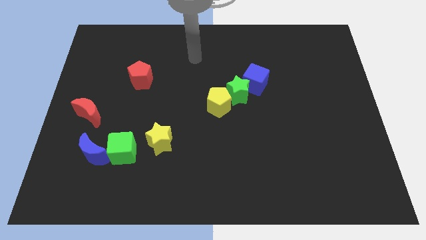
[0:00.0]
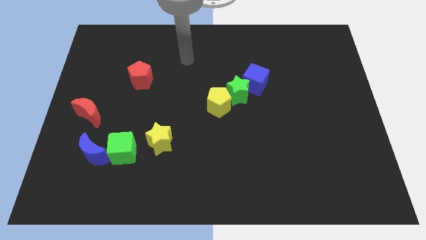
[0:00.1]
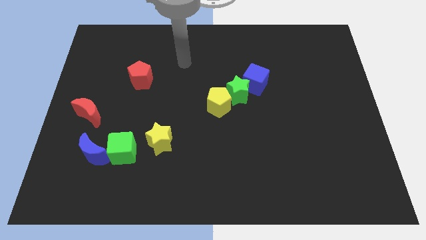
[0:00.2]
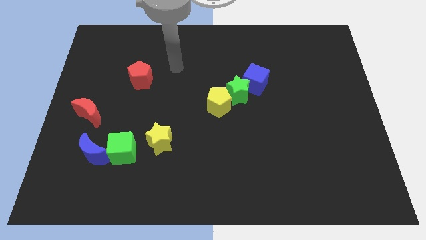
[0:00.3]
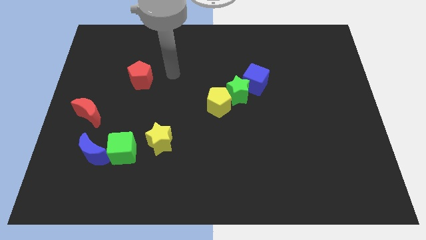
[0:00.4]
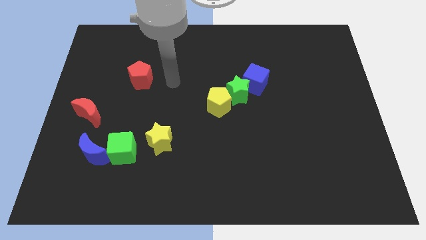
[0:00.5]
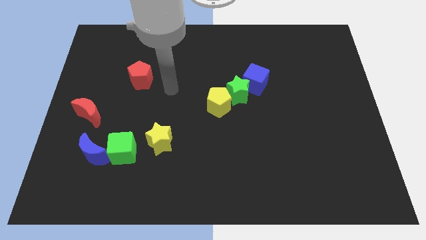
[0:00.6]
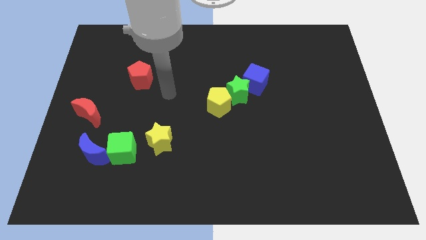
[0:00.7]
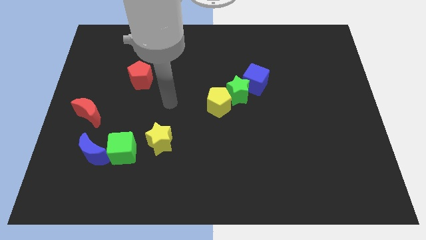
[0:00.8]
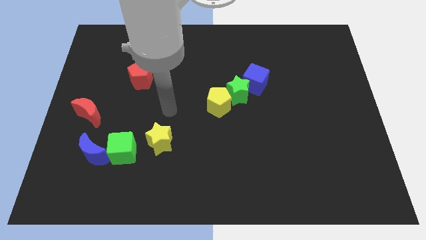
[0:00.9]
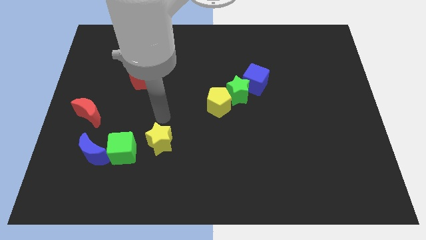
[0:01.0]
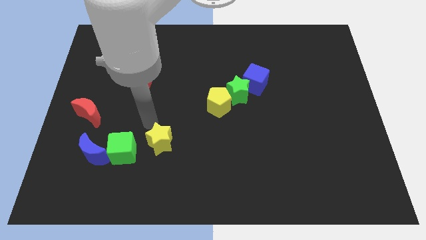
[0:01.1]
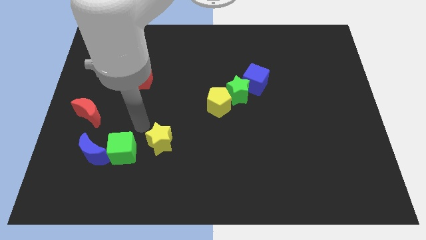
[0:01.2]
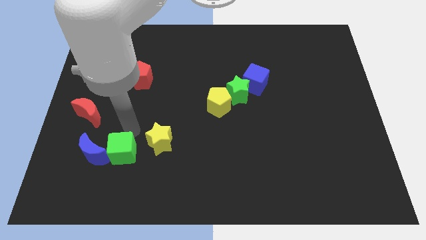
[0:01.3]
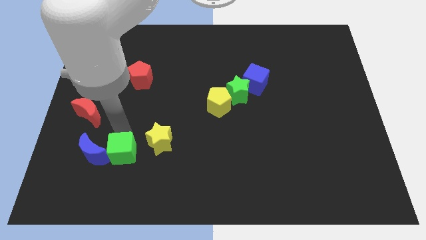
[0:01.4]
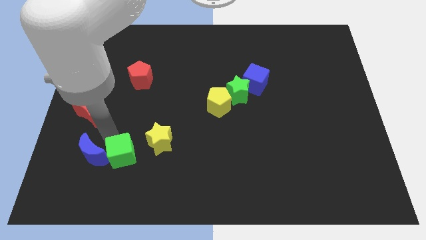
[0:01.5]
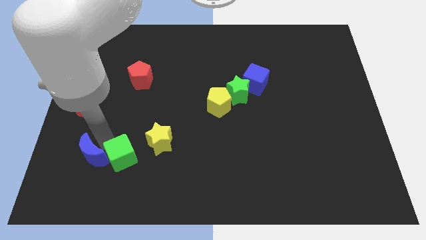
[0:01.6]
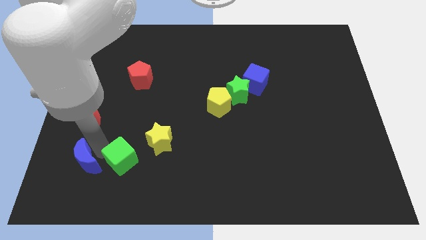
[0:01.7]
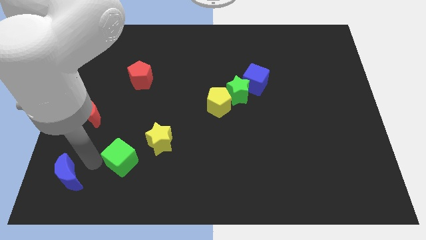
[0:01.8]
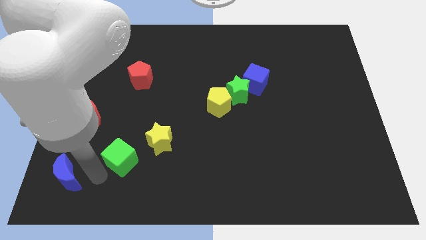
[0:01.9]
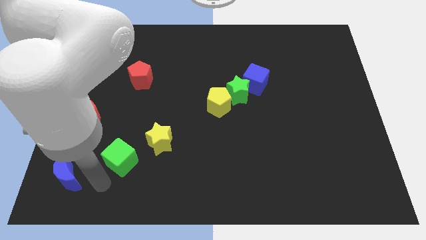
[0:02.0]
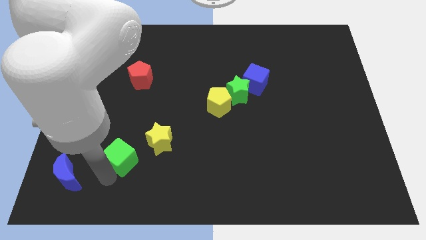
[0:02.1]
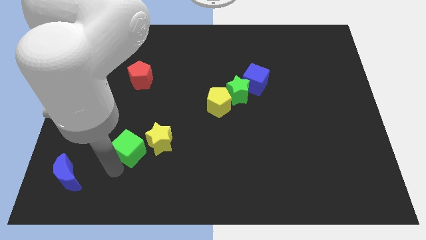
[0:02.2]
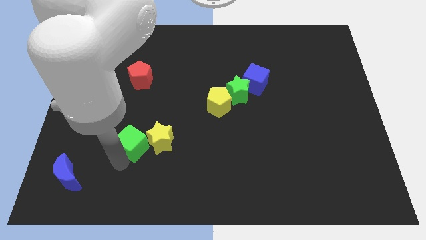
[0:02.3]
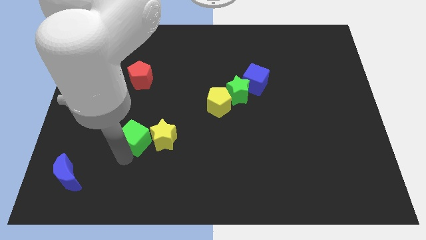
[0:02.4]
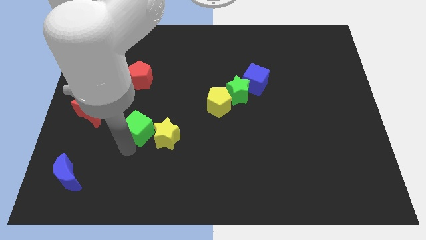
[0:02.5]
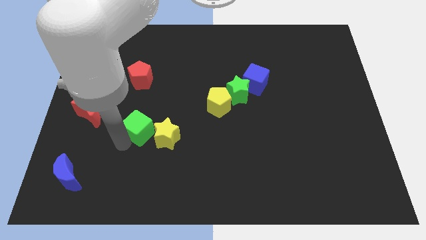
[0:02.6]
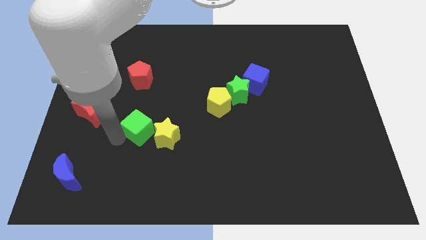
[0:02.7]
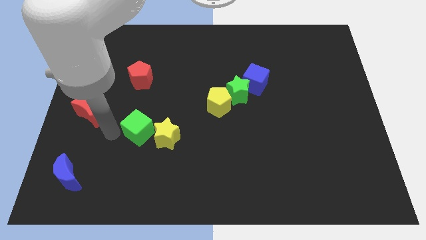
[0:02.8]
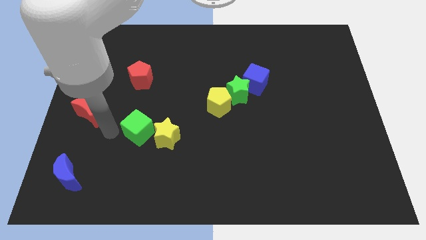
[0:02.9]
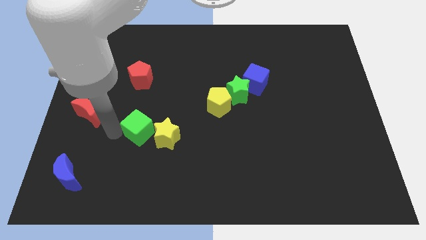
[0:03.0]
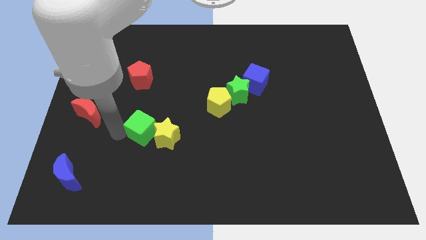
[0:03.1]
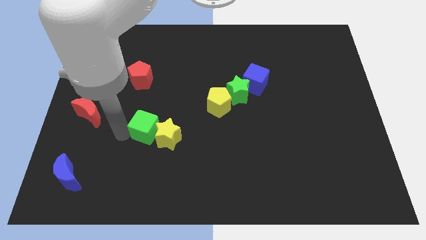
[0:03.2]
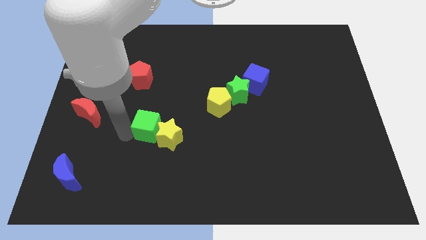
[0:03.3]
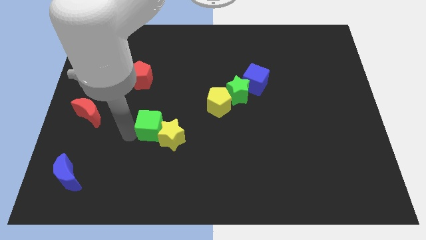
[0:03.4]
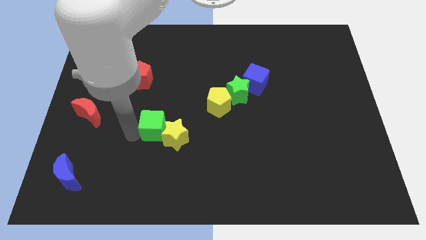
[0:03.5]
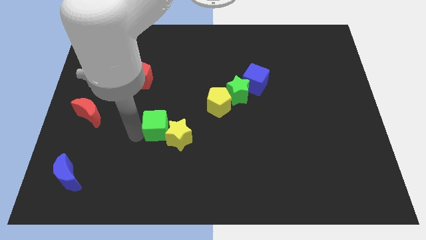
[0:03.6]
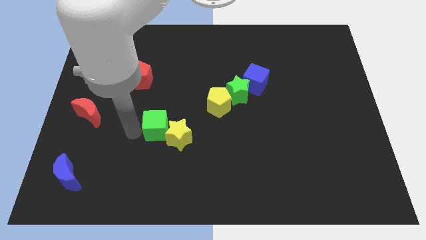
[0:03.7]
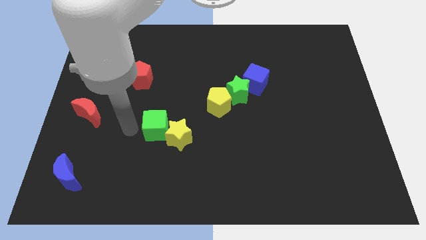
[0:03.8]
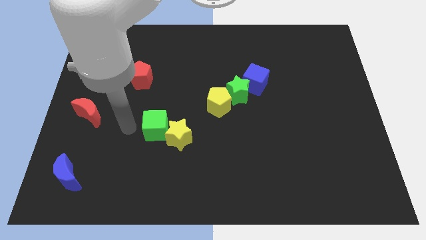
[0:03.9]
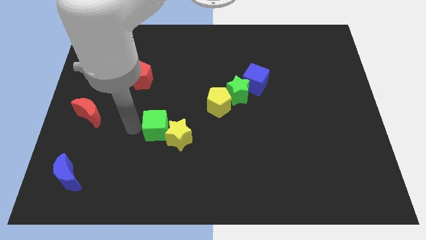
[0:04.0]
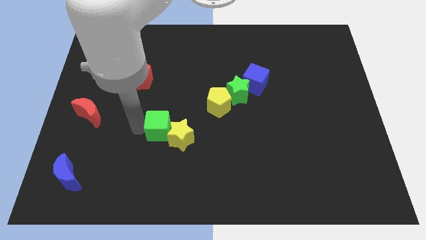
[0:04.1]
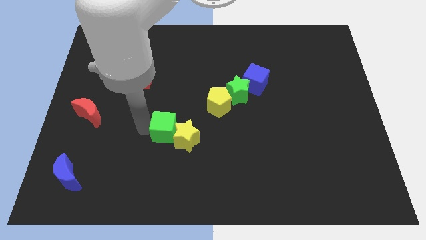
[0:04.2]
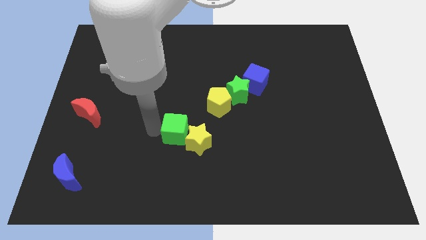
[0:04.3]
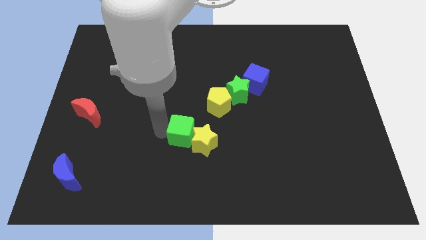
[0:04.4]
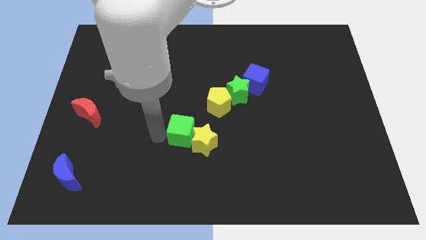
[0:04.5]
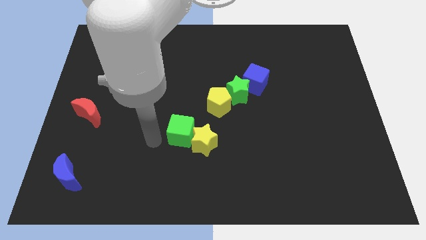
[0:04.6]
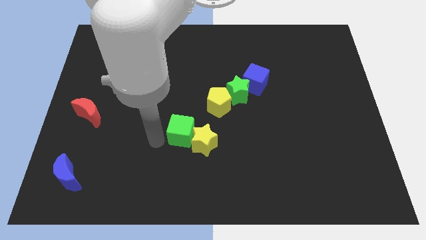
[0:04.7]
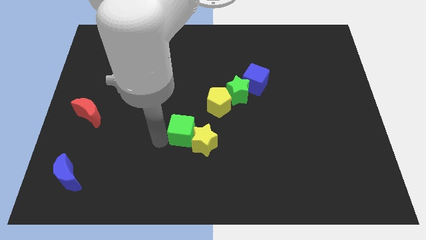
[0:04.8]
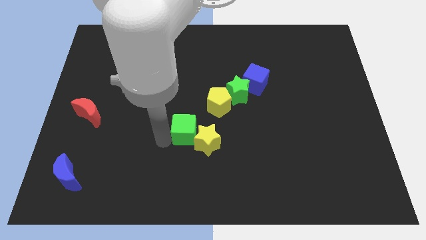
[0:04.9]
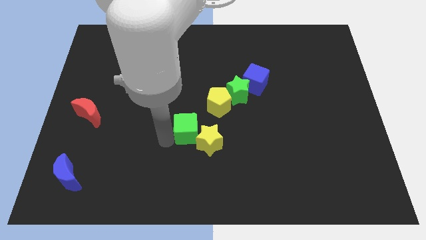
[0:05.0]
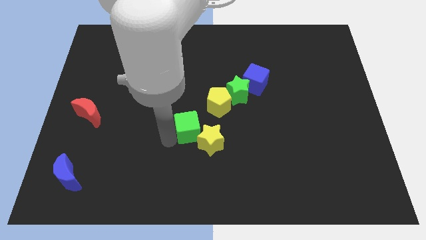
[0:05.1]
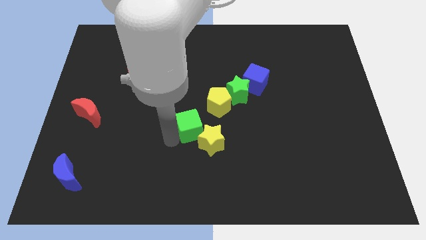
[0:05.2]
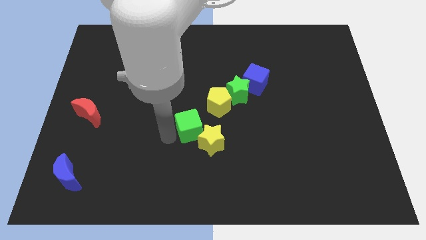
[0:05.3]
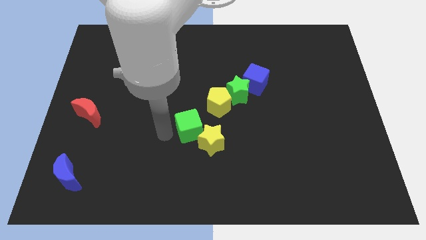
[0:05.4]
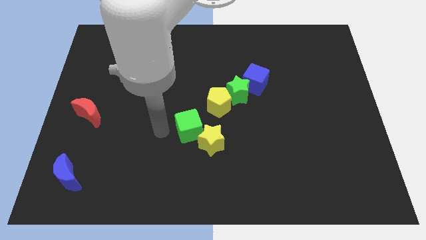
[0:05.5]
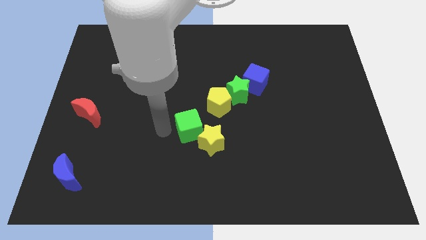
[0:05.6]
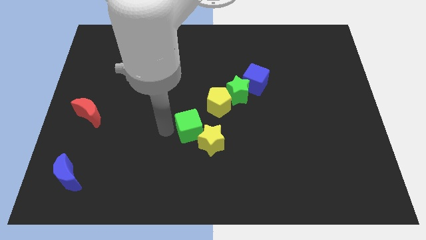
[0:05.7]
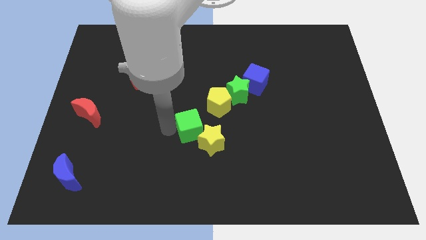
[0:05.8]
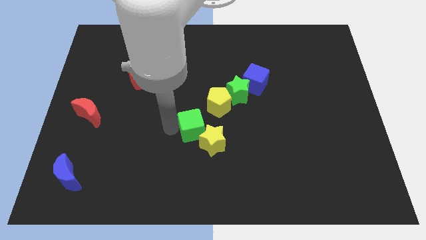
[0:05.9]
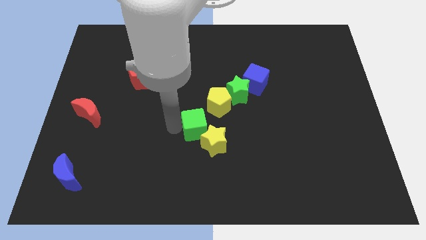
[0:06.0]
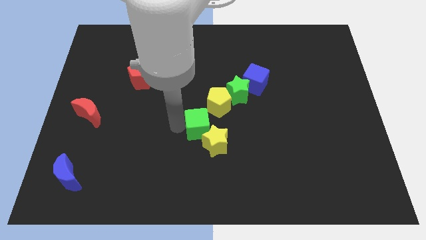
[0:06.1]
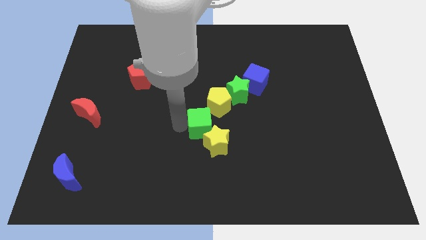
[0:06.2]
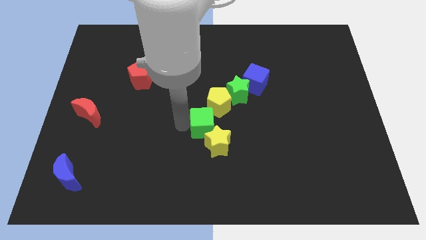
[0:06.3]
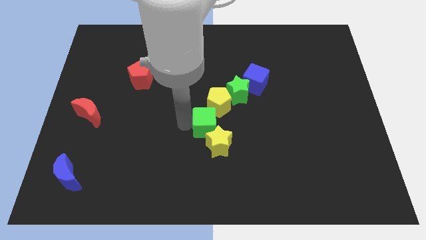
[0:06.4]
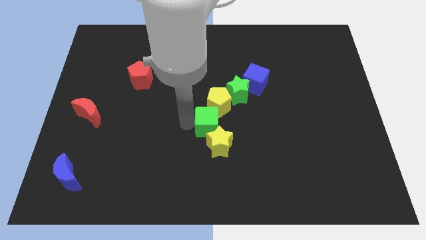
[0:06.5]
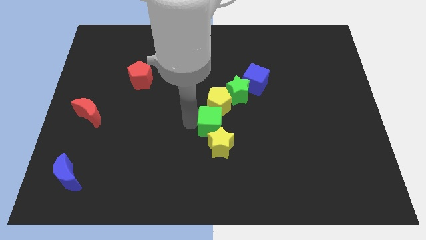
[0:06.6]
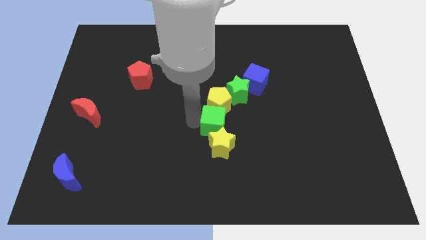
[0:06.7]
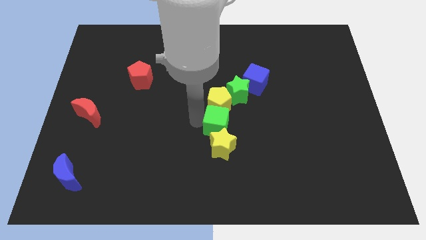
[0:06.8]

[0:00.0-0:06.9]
push the green cube below the green star

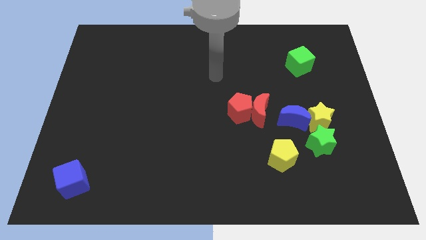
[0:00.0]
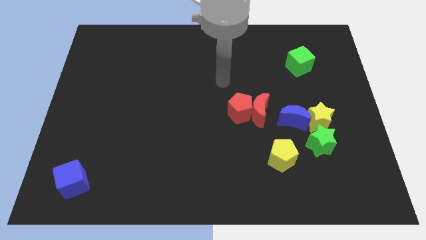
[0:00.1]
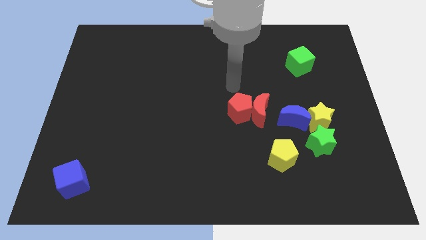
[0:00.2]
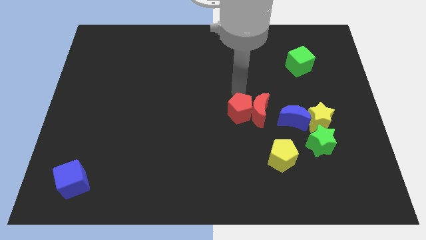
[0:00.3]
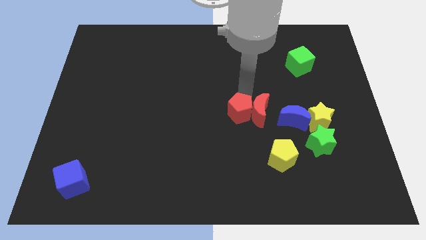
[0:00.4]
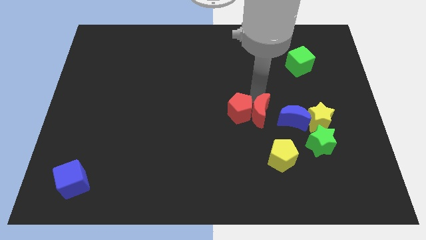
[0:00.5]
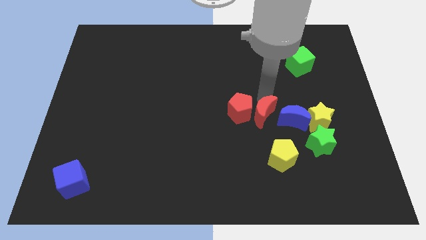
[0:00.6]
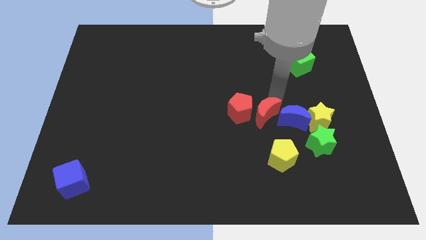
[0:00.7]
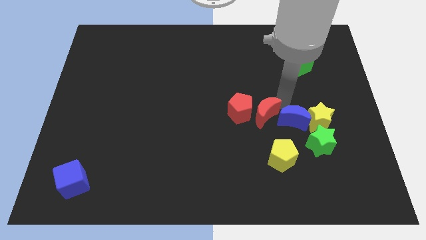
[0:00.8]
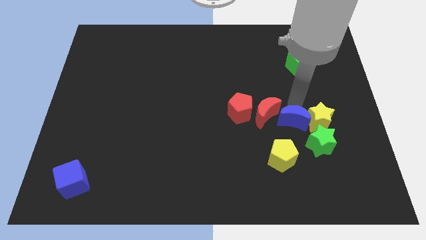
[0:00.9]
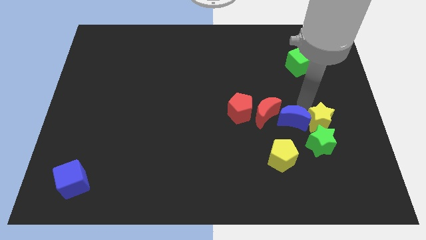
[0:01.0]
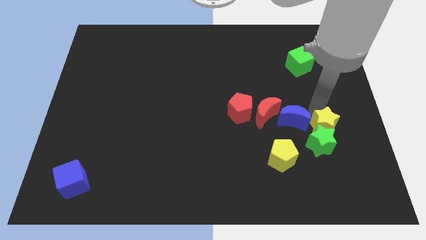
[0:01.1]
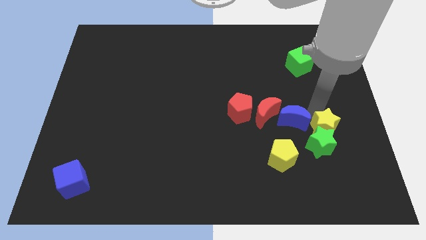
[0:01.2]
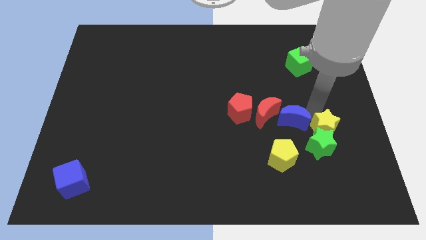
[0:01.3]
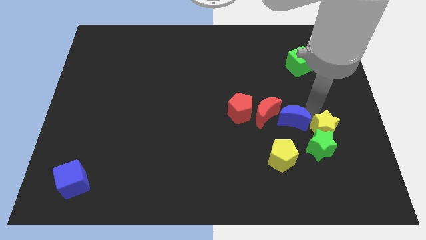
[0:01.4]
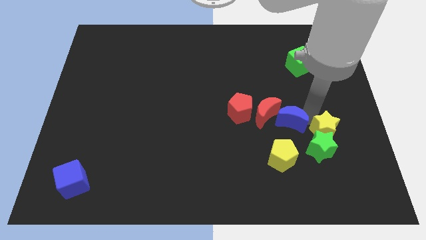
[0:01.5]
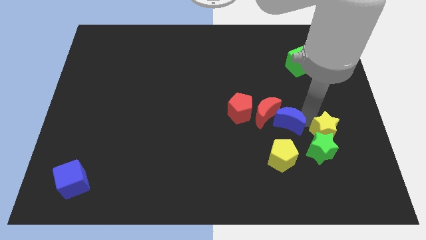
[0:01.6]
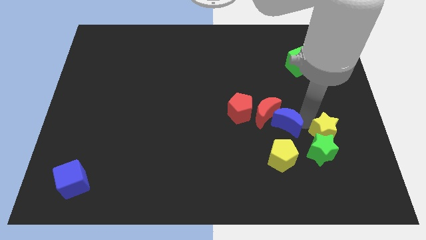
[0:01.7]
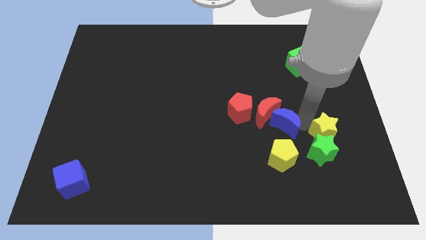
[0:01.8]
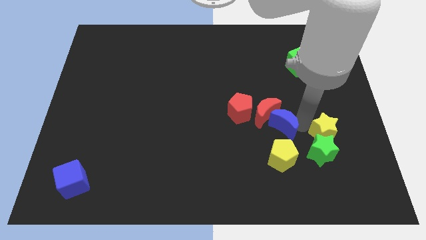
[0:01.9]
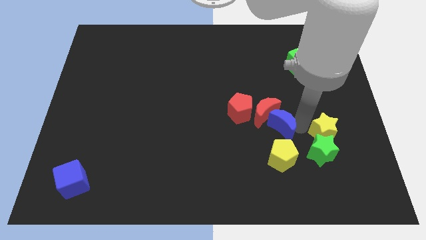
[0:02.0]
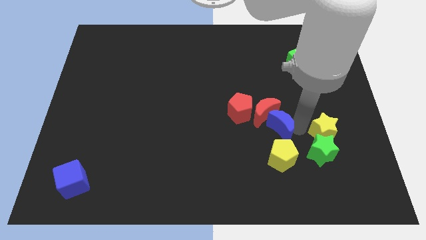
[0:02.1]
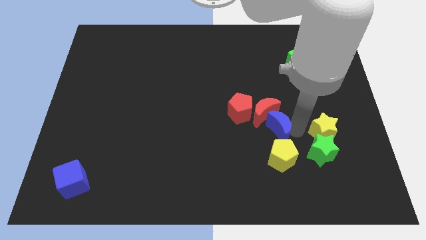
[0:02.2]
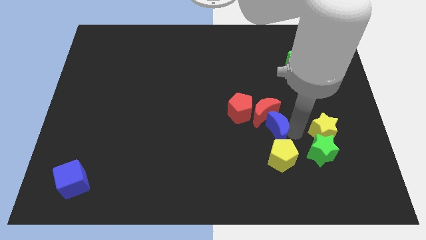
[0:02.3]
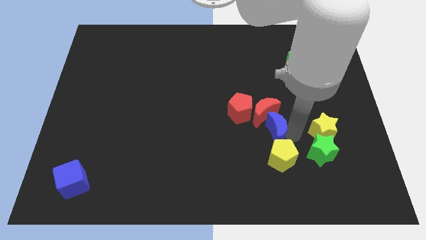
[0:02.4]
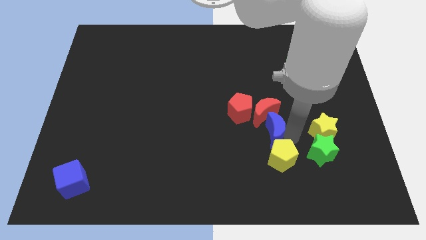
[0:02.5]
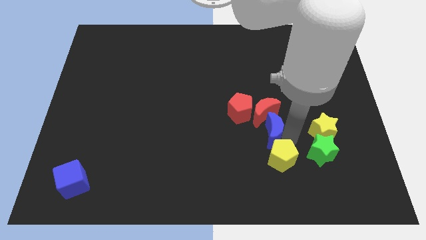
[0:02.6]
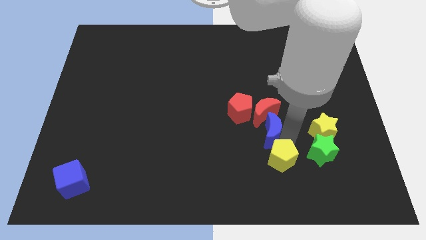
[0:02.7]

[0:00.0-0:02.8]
put the blue moon to the bottom left of the red moon
